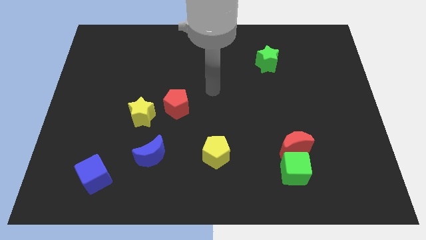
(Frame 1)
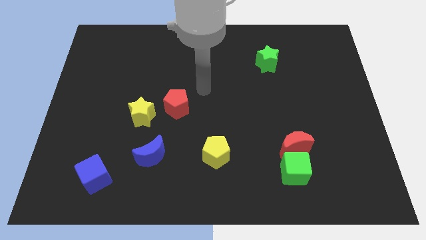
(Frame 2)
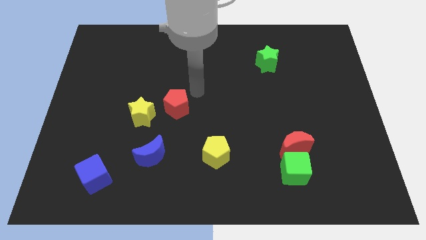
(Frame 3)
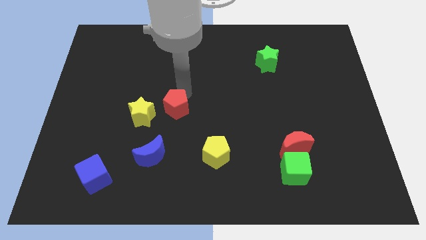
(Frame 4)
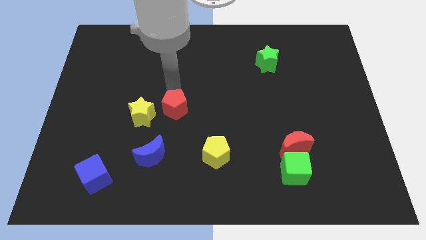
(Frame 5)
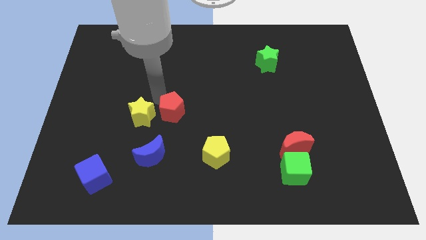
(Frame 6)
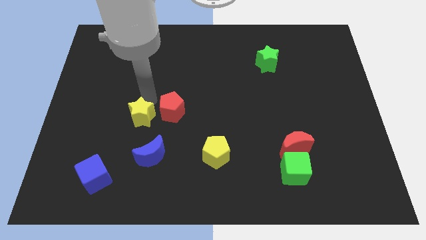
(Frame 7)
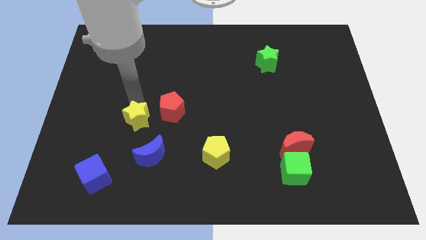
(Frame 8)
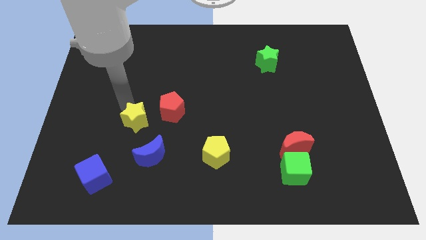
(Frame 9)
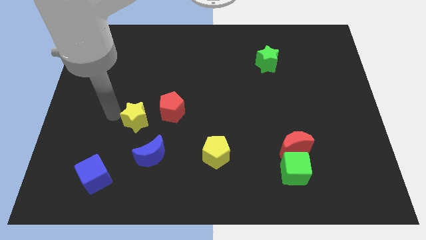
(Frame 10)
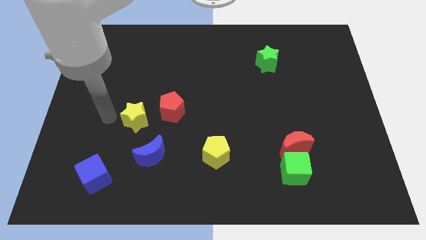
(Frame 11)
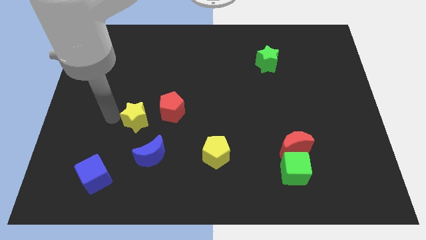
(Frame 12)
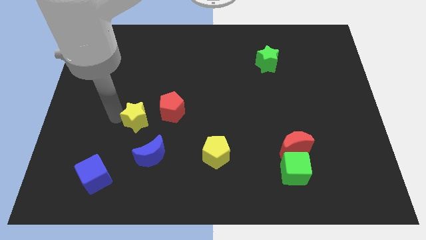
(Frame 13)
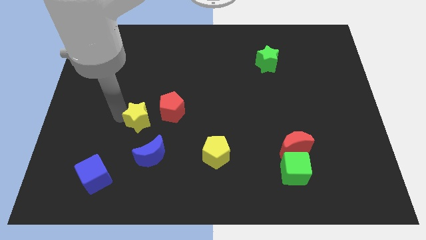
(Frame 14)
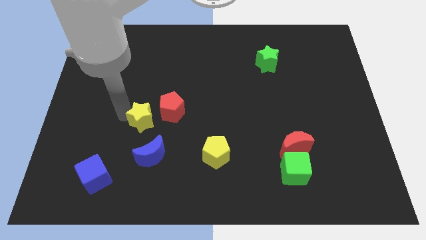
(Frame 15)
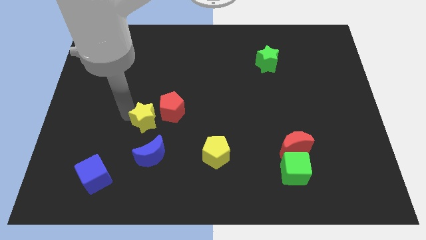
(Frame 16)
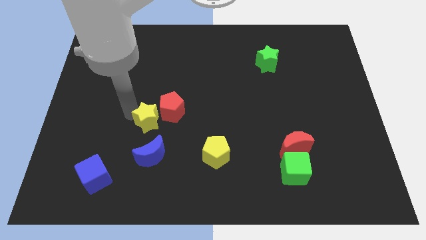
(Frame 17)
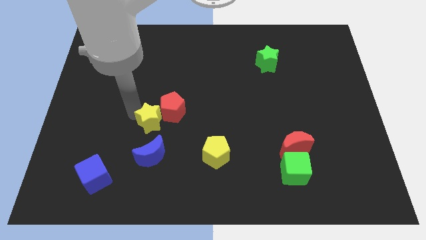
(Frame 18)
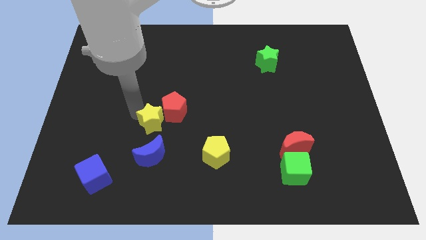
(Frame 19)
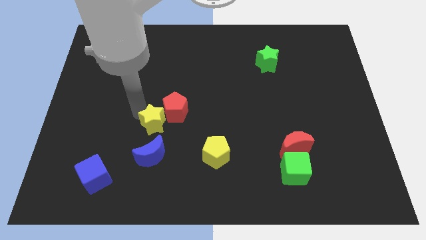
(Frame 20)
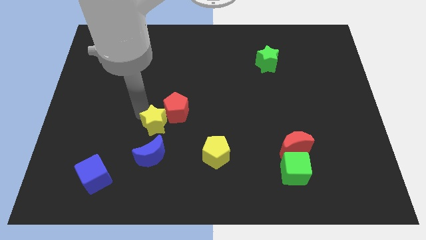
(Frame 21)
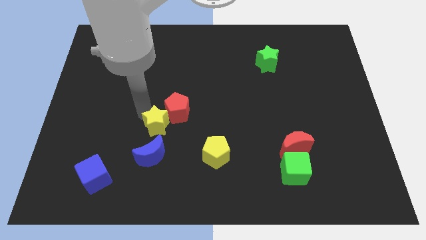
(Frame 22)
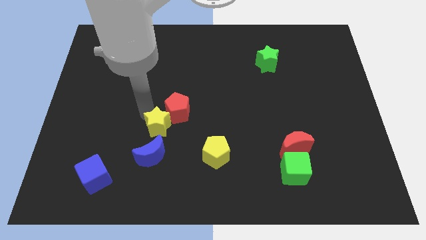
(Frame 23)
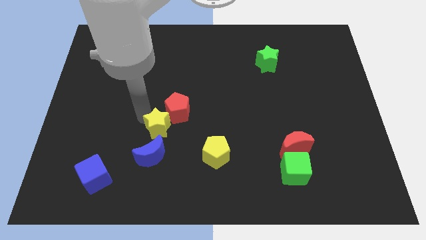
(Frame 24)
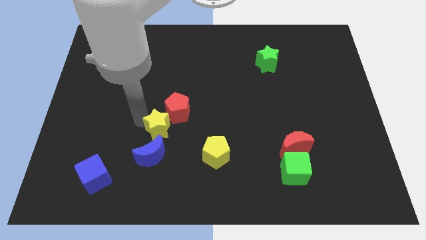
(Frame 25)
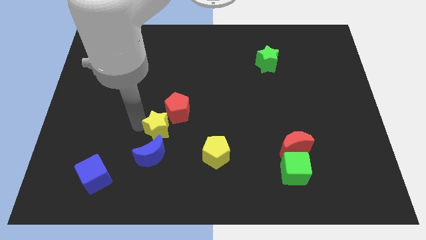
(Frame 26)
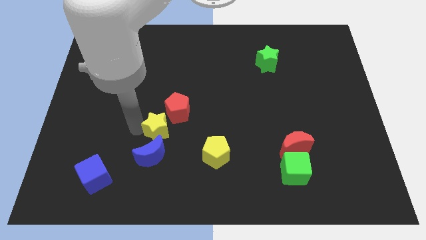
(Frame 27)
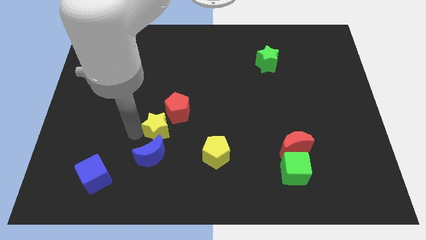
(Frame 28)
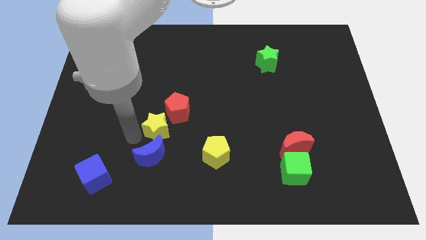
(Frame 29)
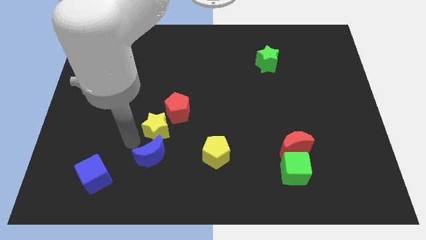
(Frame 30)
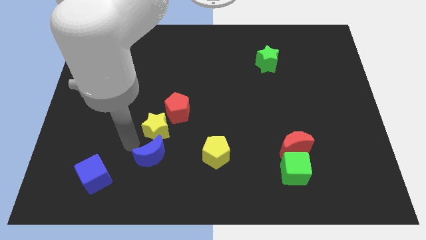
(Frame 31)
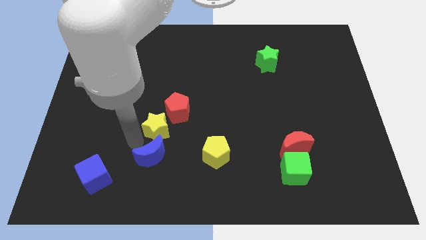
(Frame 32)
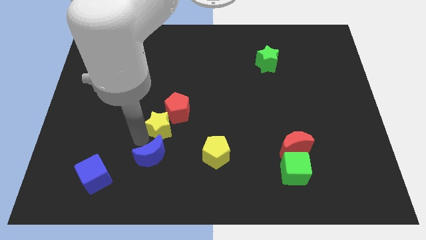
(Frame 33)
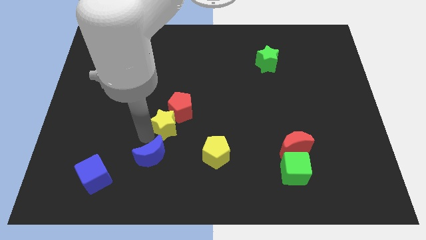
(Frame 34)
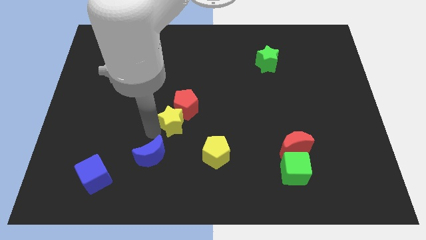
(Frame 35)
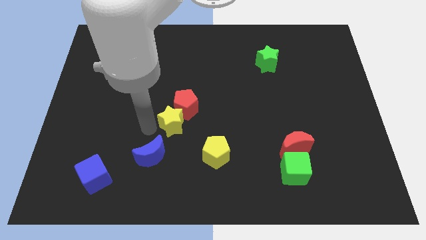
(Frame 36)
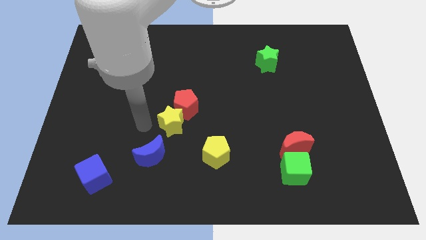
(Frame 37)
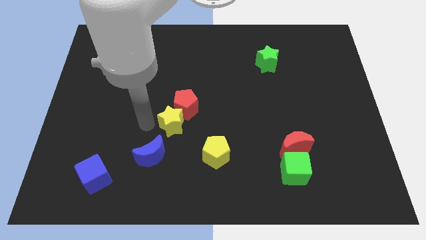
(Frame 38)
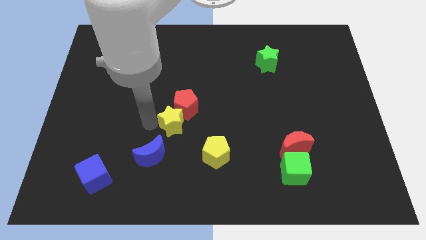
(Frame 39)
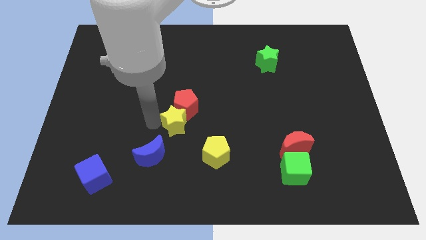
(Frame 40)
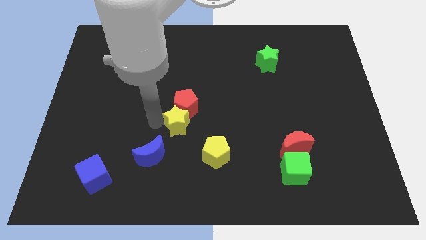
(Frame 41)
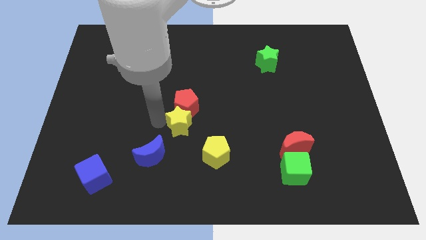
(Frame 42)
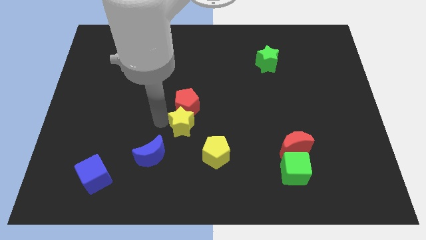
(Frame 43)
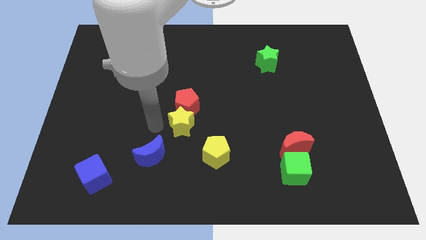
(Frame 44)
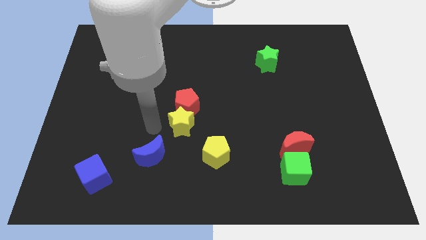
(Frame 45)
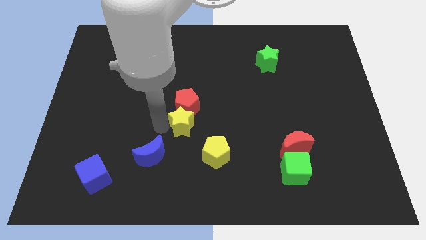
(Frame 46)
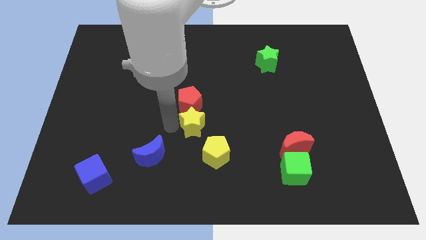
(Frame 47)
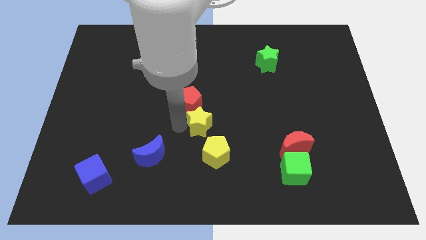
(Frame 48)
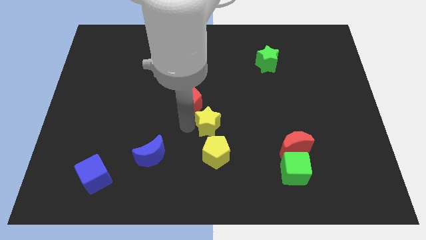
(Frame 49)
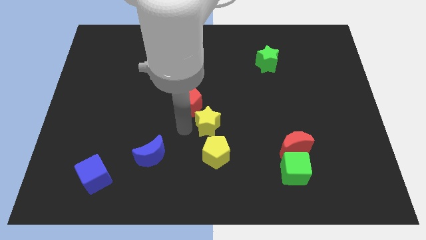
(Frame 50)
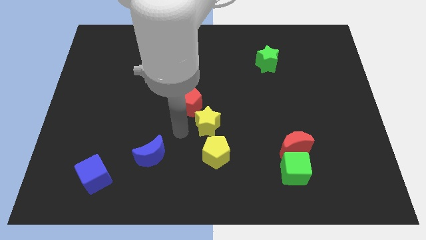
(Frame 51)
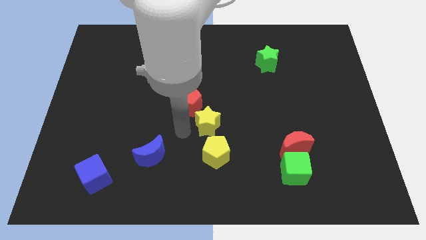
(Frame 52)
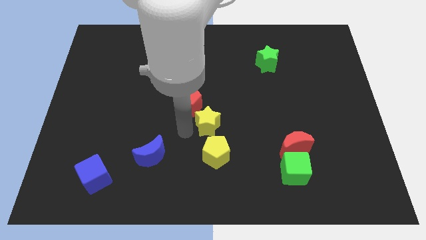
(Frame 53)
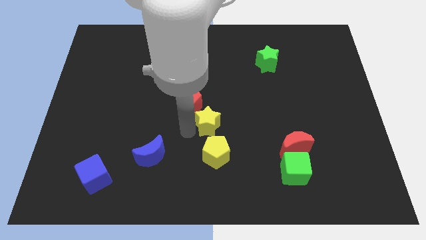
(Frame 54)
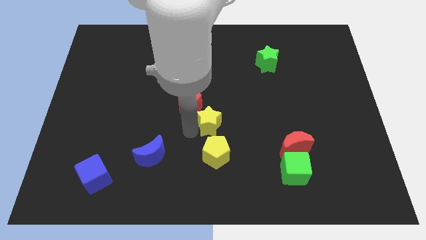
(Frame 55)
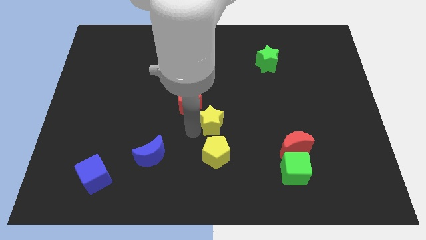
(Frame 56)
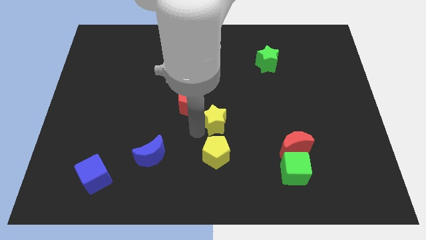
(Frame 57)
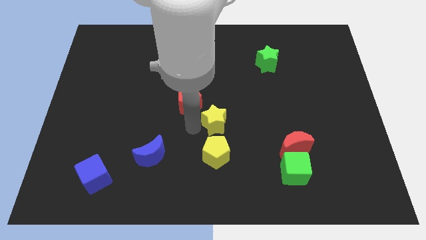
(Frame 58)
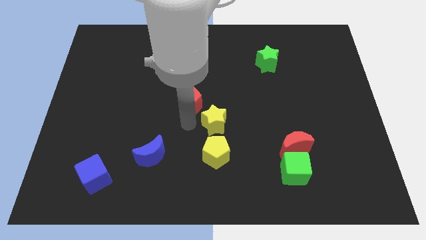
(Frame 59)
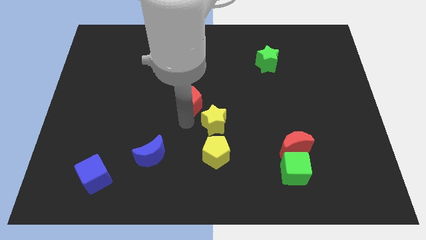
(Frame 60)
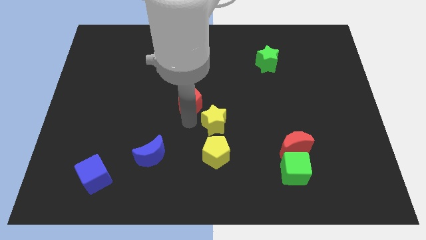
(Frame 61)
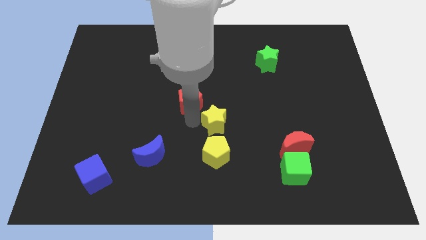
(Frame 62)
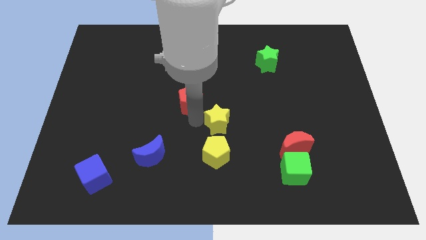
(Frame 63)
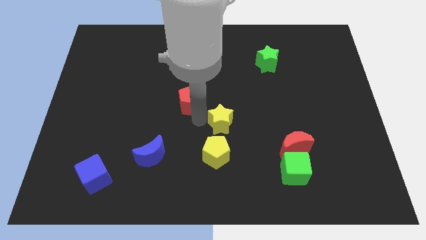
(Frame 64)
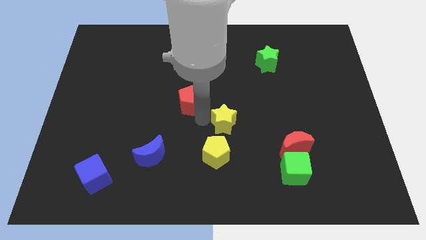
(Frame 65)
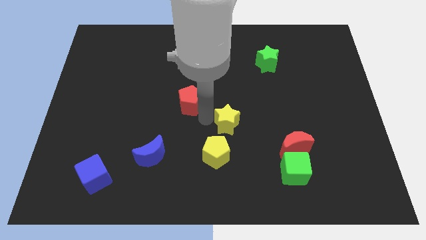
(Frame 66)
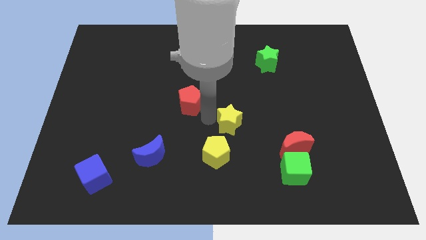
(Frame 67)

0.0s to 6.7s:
slide the yellow star right

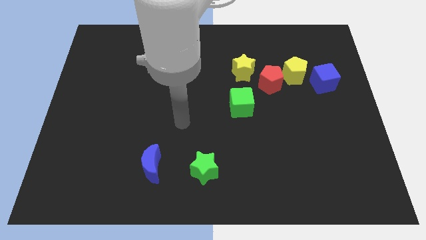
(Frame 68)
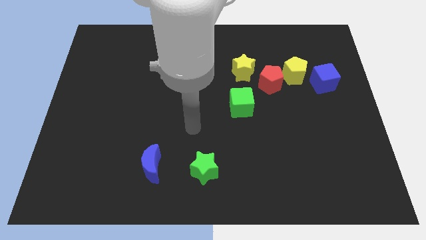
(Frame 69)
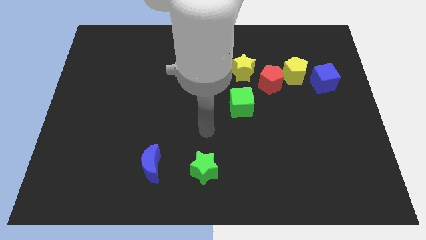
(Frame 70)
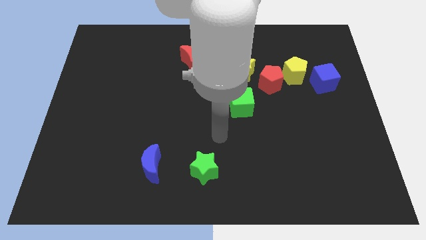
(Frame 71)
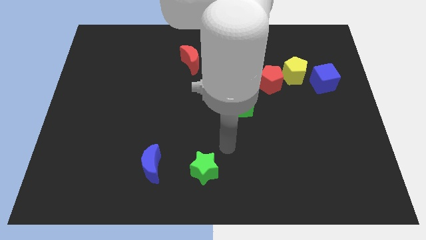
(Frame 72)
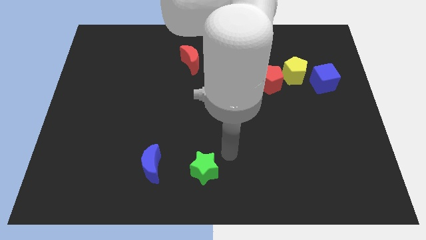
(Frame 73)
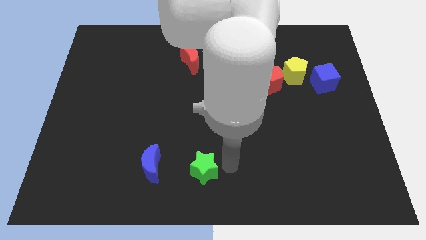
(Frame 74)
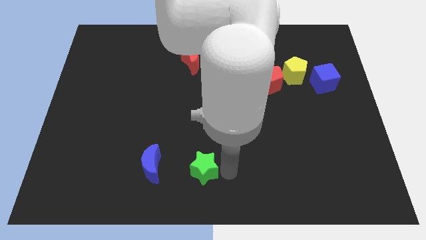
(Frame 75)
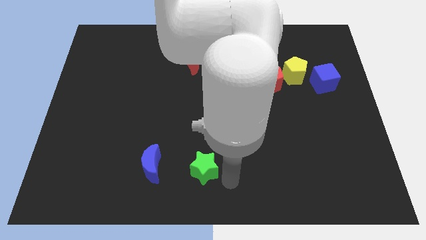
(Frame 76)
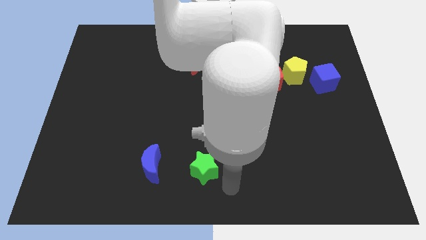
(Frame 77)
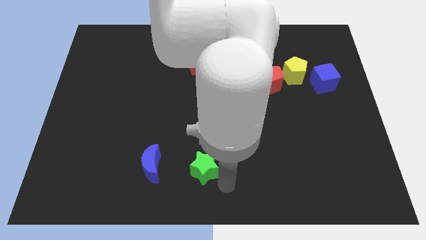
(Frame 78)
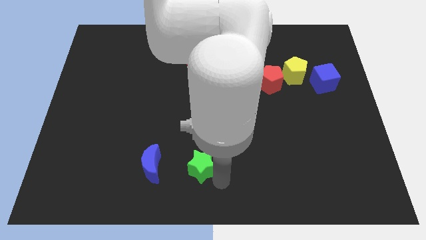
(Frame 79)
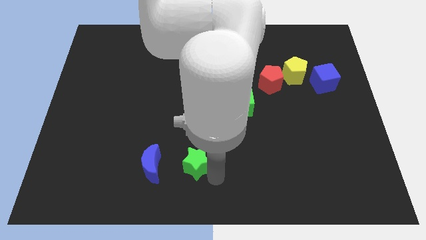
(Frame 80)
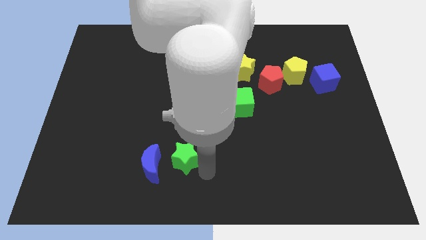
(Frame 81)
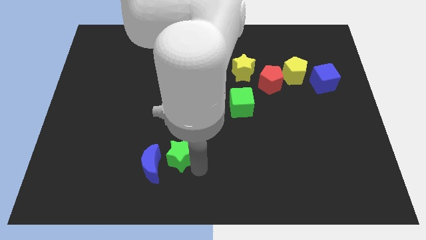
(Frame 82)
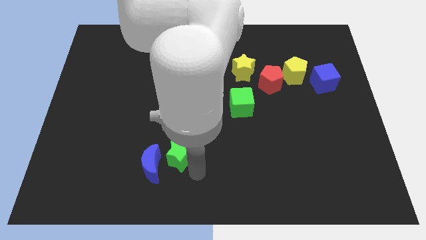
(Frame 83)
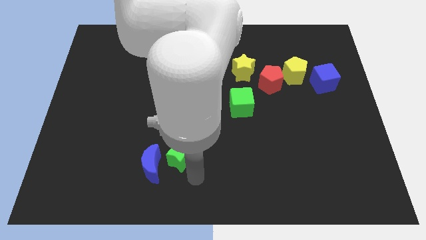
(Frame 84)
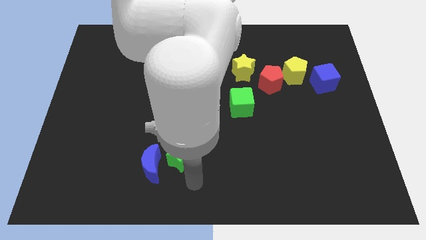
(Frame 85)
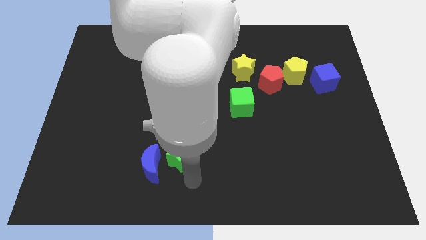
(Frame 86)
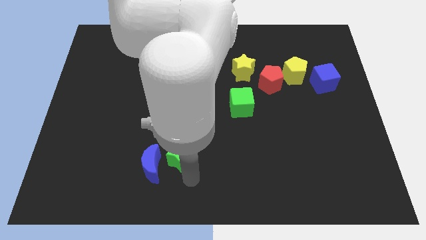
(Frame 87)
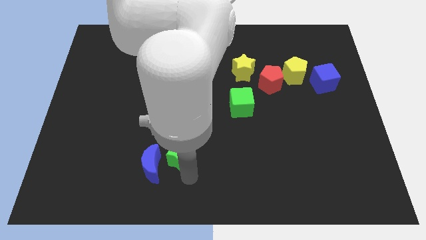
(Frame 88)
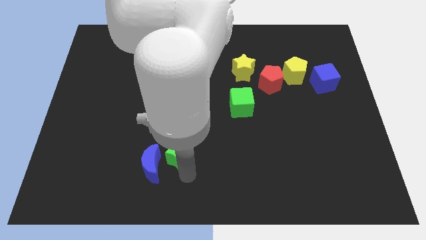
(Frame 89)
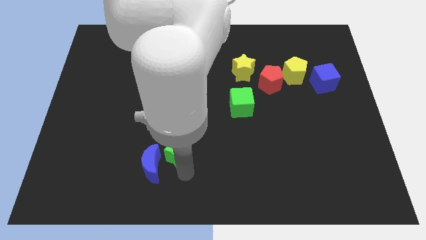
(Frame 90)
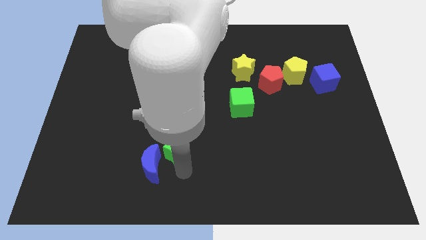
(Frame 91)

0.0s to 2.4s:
slightly push the green star up and to the left diagonally
